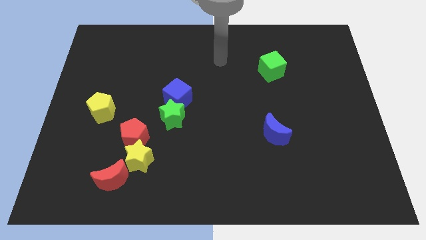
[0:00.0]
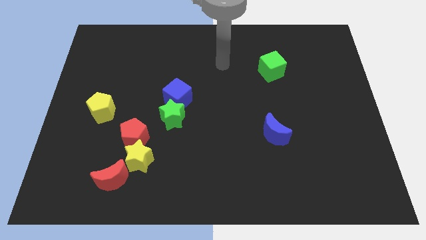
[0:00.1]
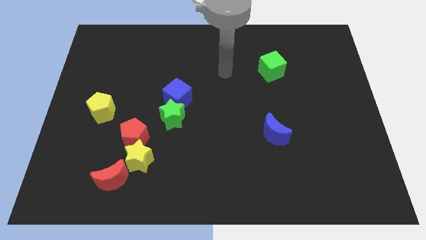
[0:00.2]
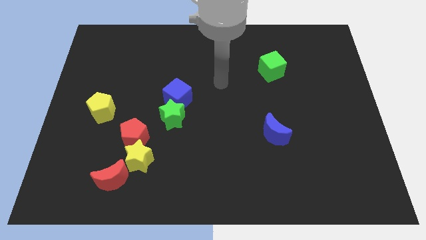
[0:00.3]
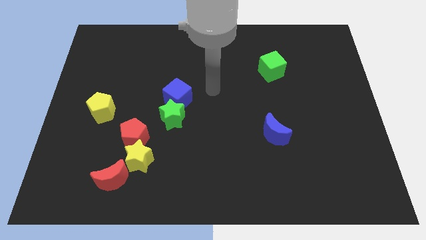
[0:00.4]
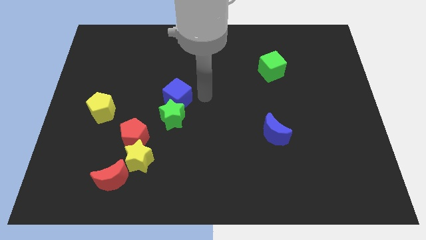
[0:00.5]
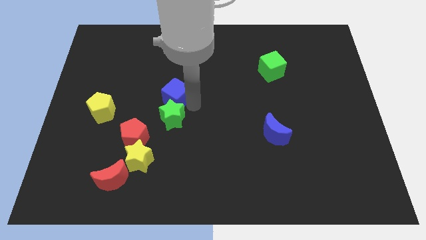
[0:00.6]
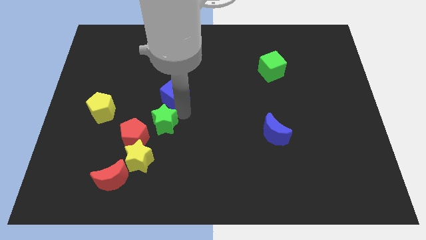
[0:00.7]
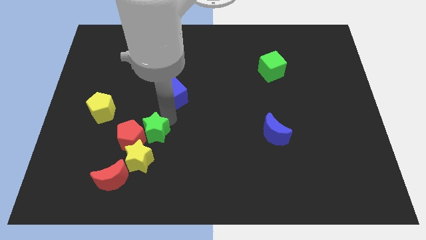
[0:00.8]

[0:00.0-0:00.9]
separate the blue cube from the green star

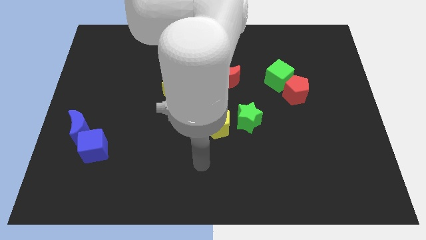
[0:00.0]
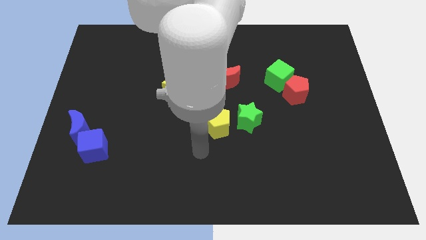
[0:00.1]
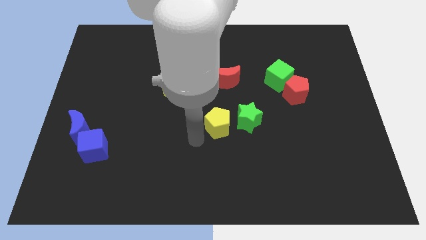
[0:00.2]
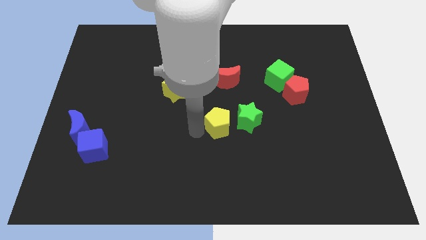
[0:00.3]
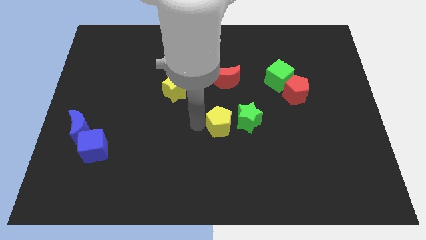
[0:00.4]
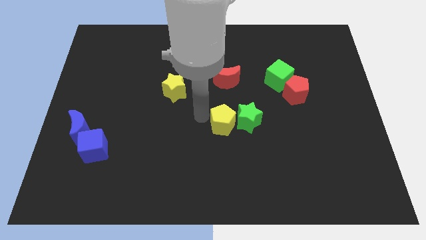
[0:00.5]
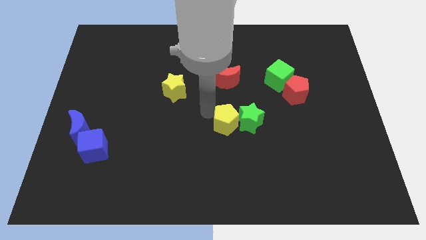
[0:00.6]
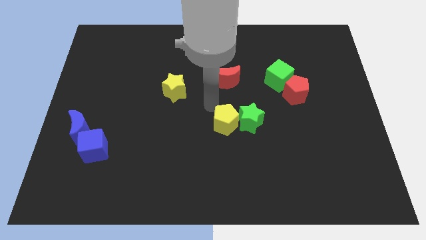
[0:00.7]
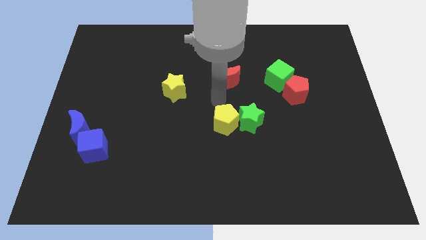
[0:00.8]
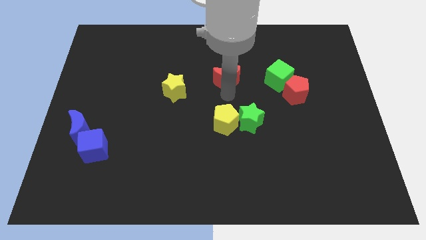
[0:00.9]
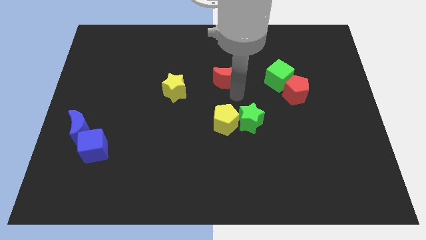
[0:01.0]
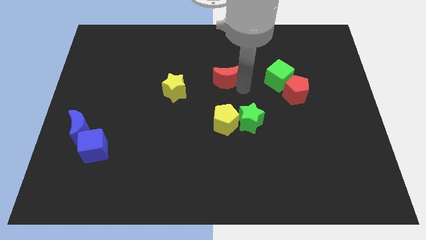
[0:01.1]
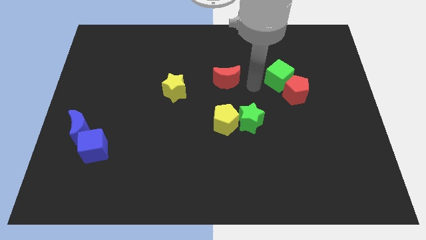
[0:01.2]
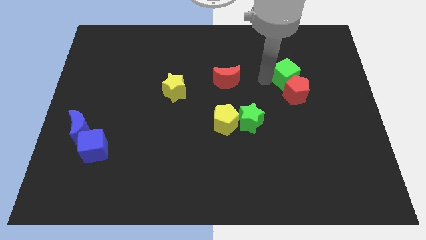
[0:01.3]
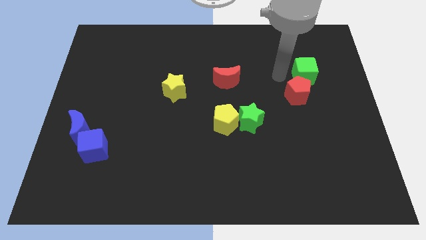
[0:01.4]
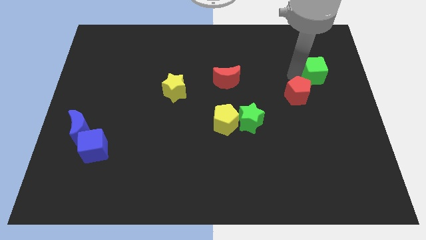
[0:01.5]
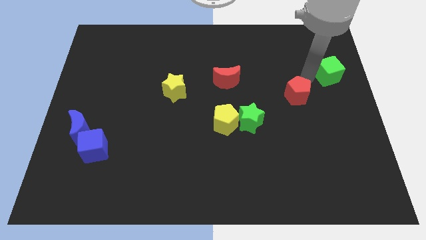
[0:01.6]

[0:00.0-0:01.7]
pull the red pentagon apart from the green cube

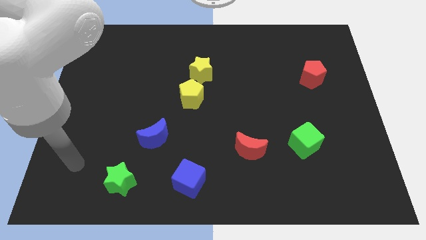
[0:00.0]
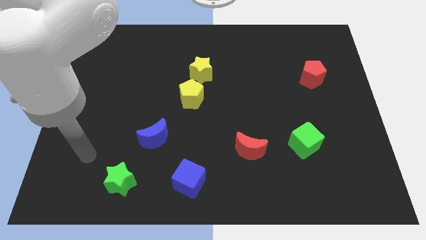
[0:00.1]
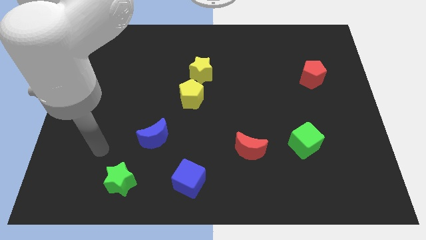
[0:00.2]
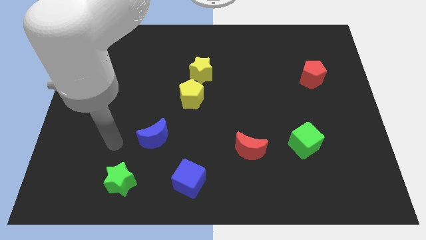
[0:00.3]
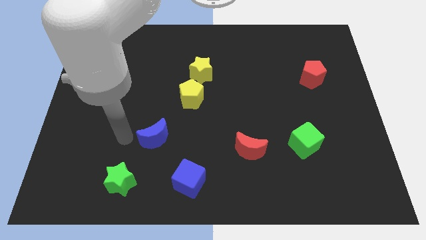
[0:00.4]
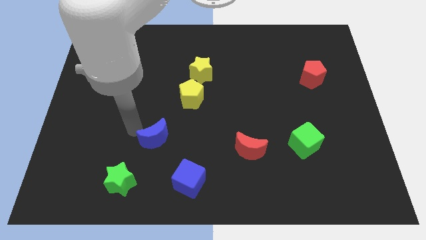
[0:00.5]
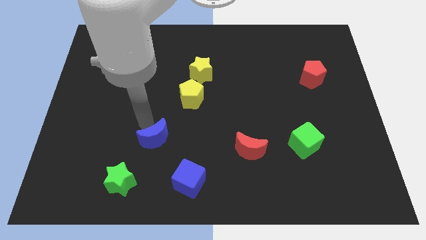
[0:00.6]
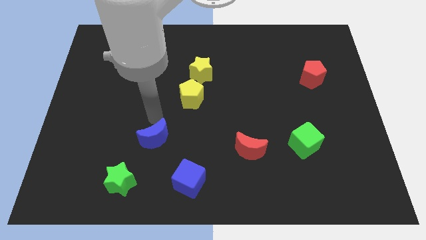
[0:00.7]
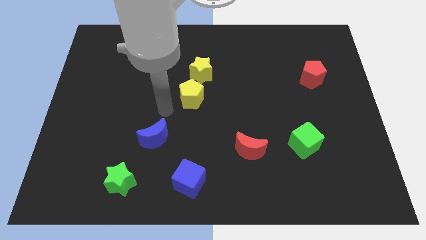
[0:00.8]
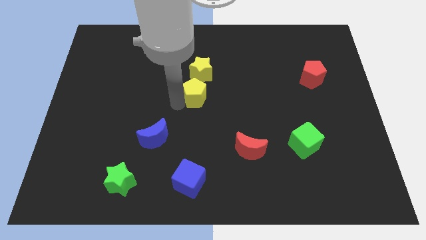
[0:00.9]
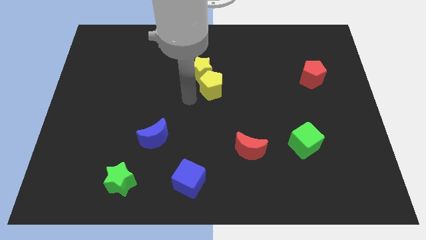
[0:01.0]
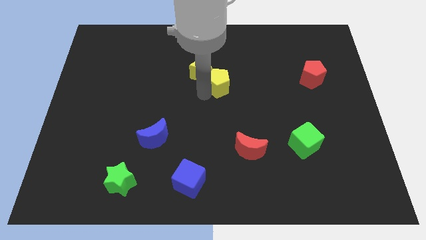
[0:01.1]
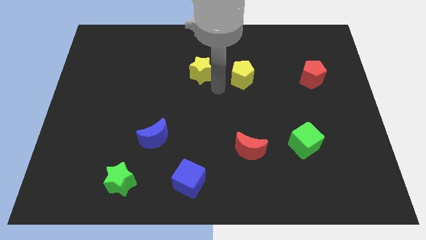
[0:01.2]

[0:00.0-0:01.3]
pull the yellow star apart from the yellow pentagon

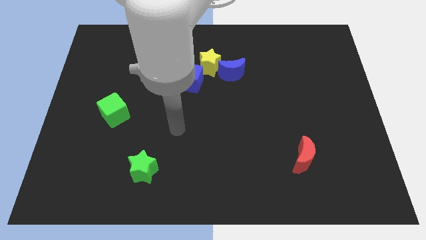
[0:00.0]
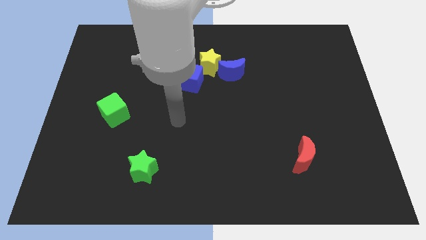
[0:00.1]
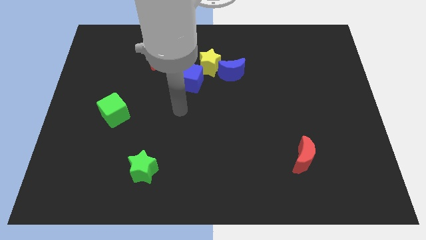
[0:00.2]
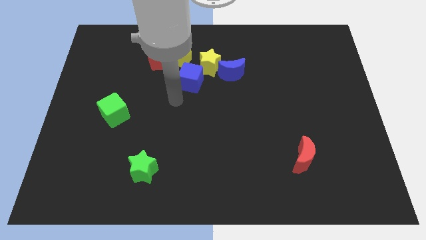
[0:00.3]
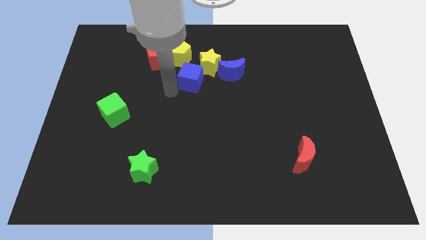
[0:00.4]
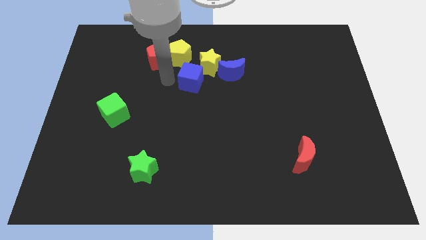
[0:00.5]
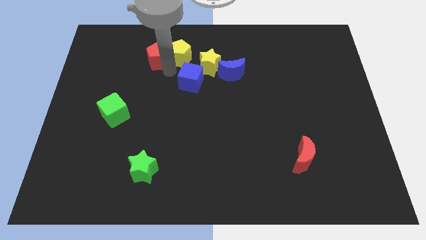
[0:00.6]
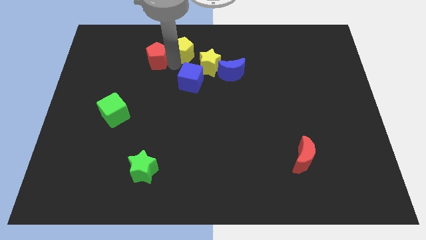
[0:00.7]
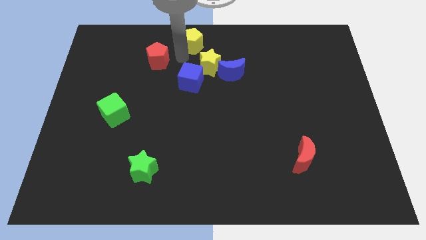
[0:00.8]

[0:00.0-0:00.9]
pull the red pentagon apart from the yellow pentagon

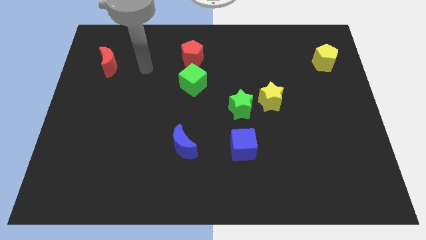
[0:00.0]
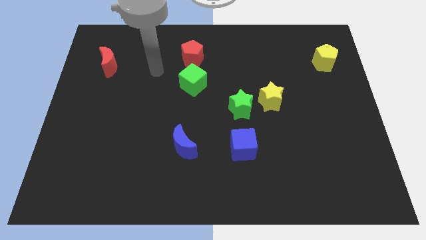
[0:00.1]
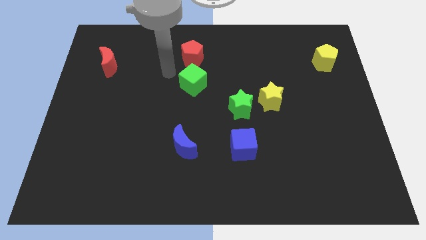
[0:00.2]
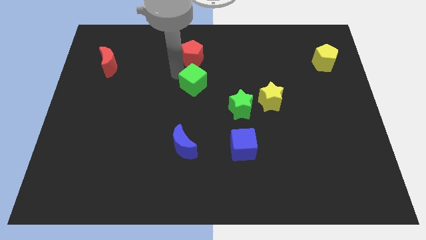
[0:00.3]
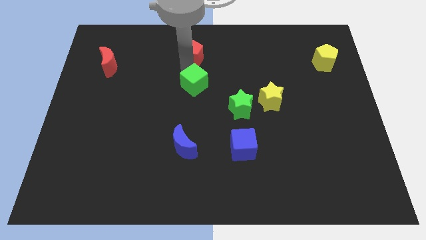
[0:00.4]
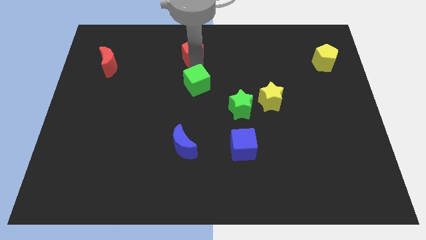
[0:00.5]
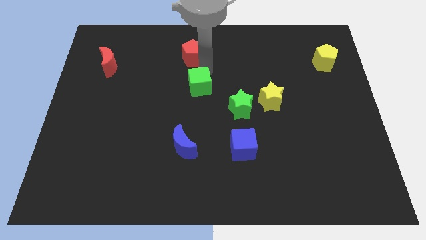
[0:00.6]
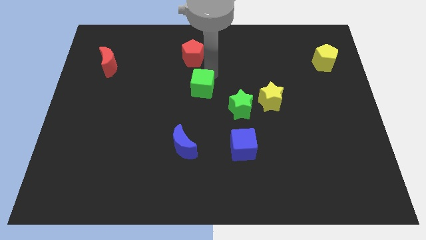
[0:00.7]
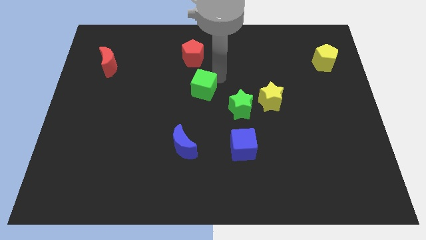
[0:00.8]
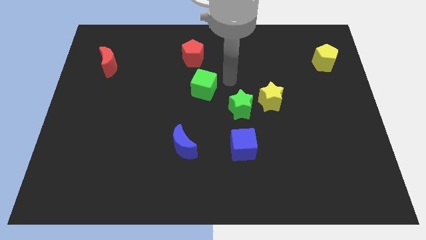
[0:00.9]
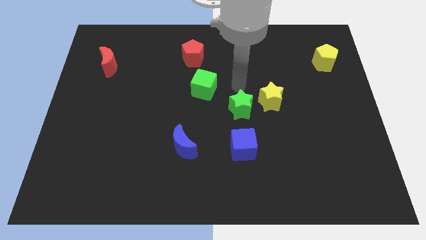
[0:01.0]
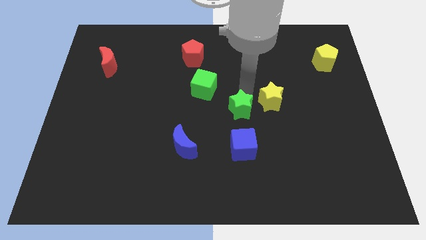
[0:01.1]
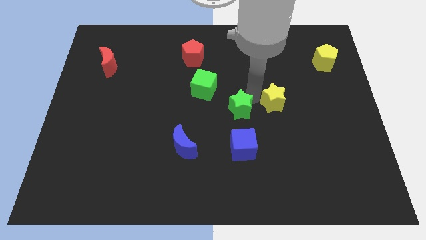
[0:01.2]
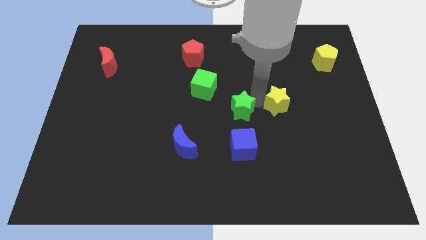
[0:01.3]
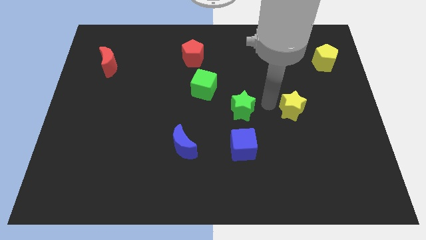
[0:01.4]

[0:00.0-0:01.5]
move the green star away from the yellow star

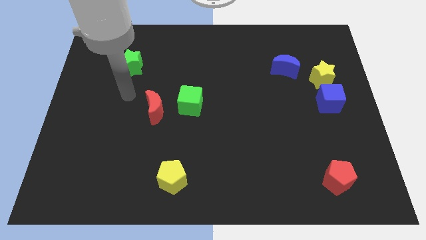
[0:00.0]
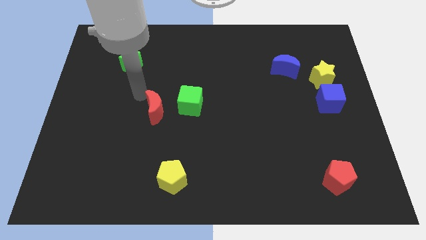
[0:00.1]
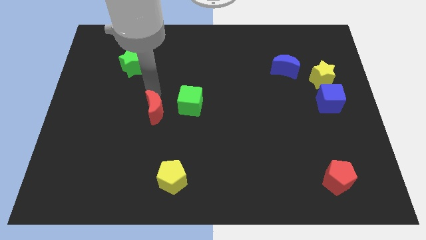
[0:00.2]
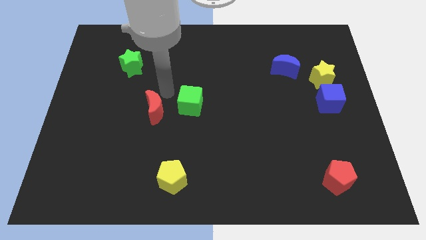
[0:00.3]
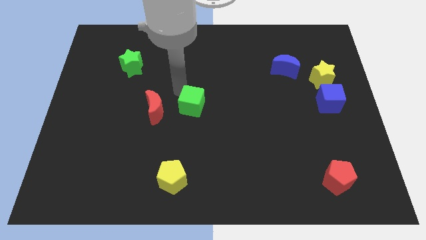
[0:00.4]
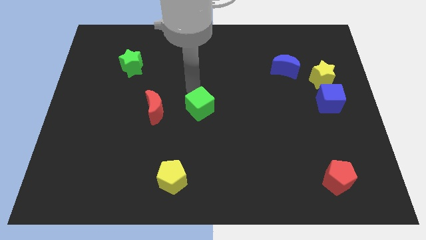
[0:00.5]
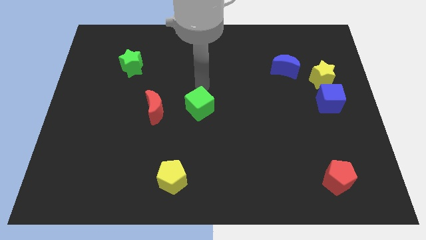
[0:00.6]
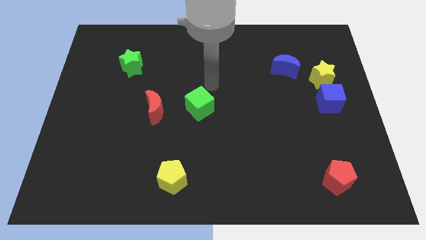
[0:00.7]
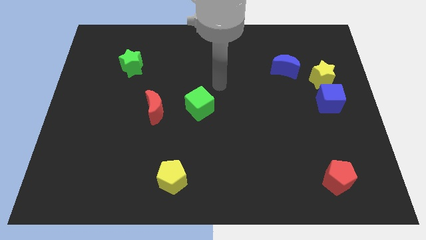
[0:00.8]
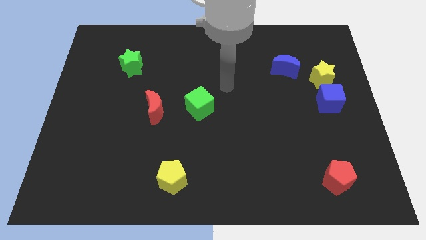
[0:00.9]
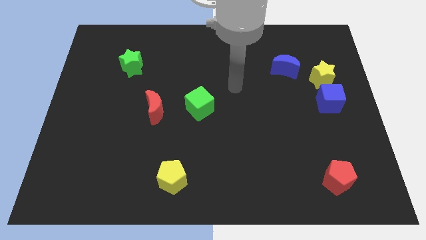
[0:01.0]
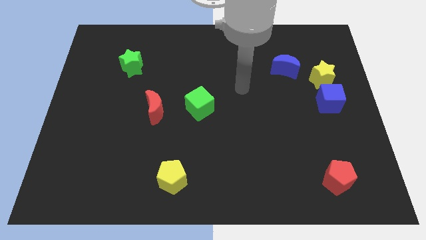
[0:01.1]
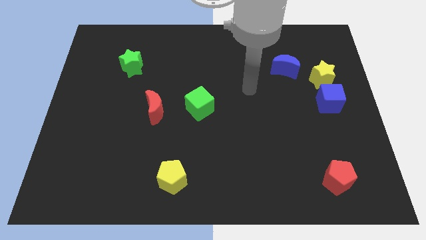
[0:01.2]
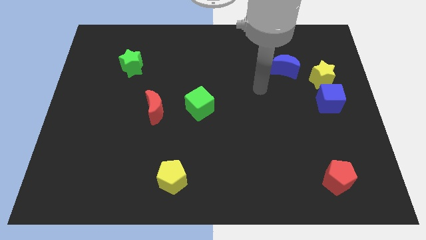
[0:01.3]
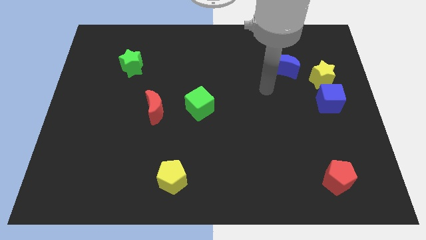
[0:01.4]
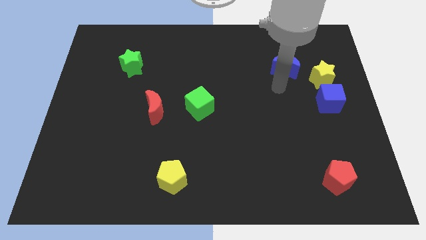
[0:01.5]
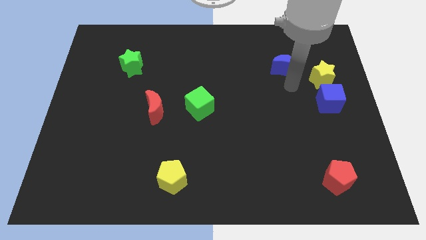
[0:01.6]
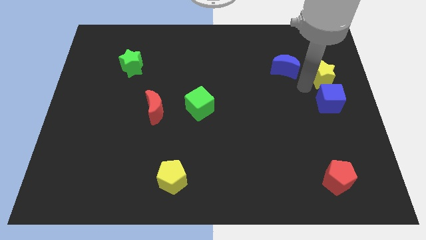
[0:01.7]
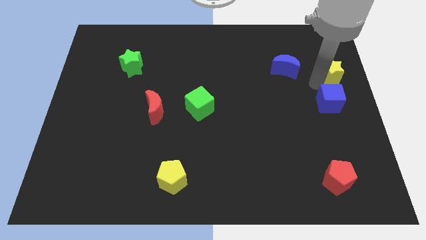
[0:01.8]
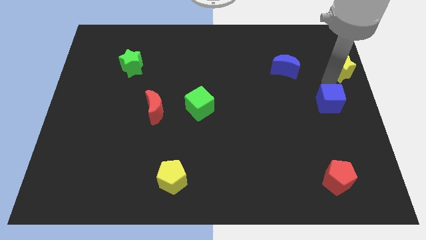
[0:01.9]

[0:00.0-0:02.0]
separate the blue cube from the yellow star

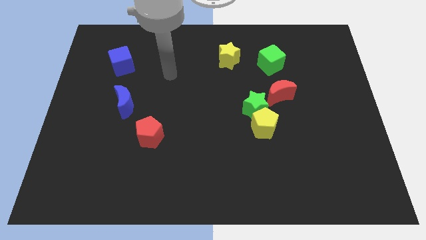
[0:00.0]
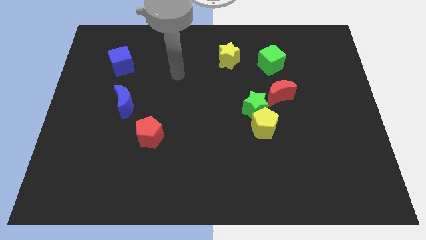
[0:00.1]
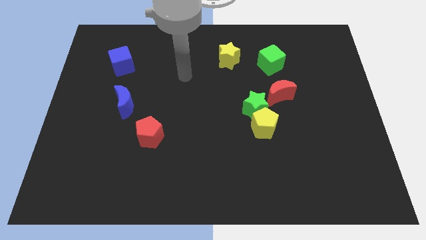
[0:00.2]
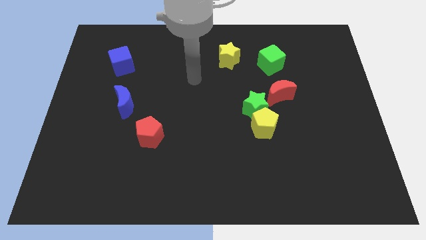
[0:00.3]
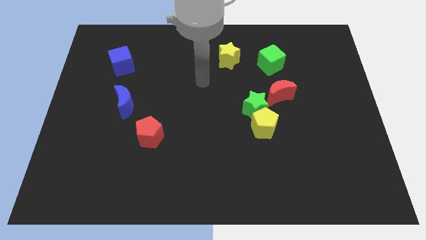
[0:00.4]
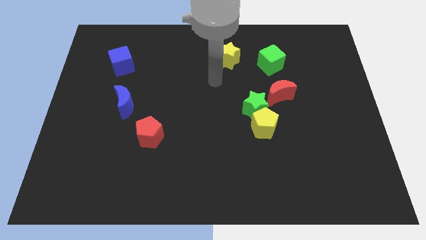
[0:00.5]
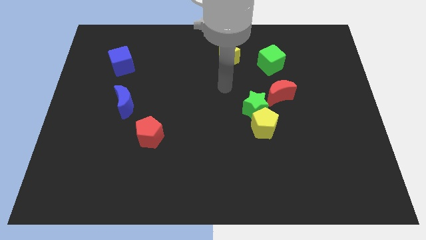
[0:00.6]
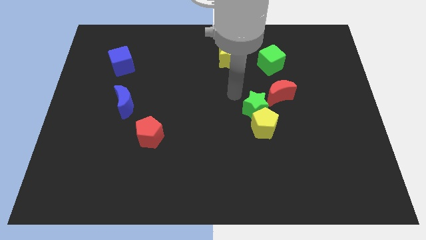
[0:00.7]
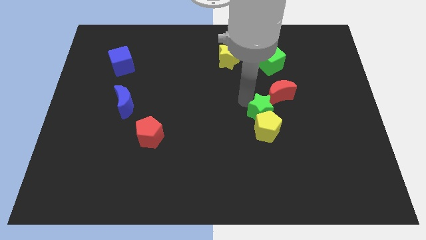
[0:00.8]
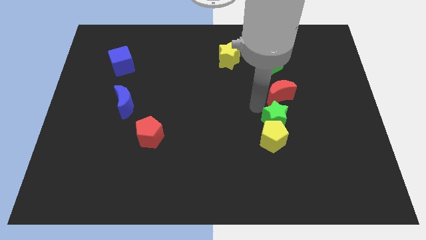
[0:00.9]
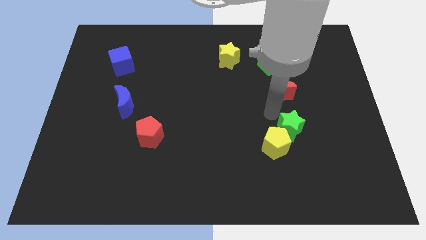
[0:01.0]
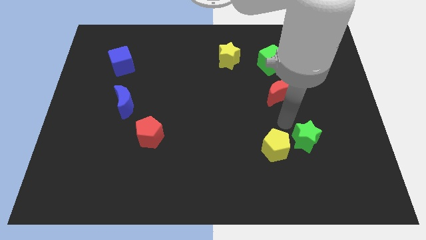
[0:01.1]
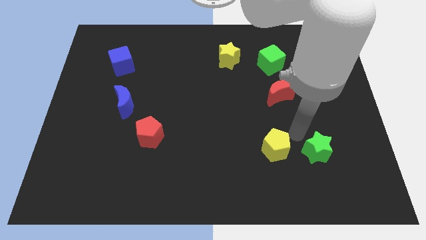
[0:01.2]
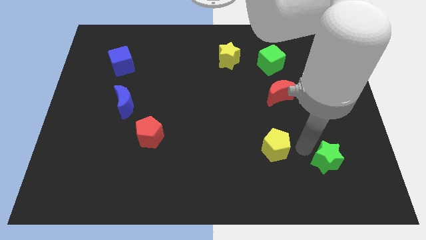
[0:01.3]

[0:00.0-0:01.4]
separate the yellow pentagon from the green star
